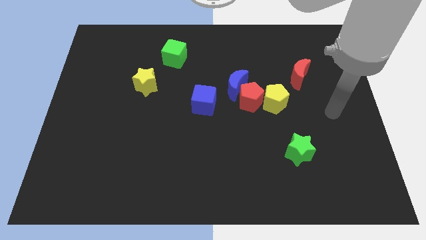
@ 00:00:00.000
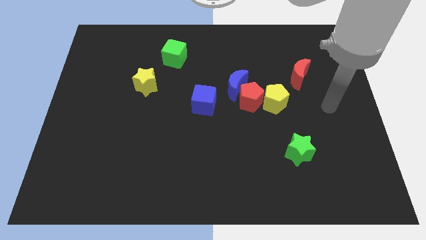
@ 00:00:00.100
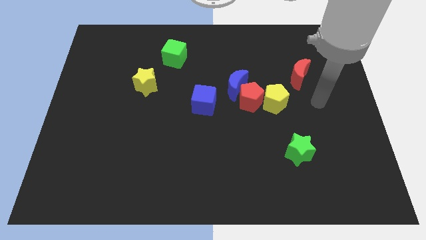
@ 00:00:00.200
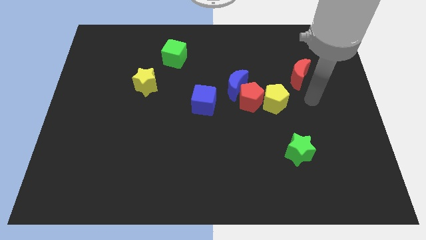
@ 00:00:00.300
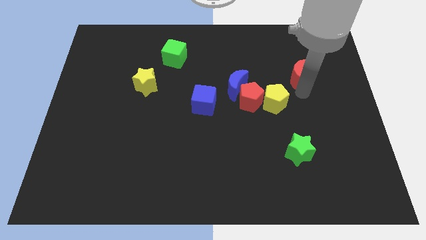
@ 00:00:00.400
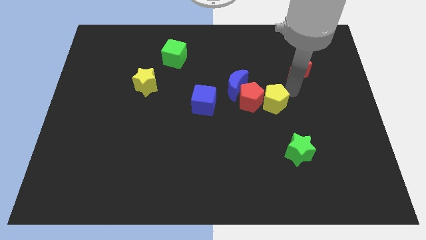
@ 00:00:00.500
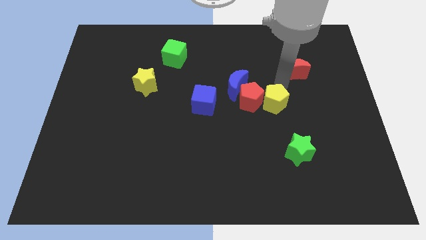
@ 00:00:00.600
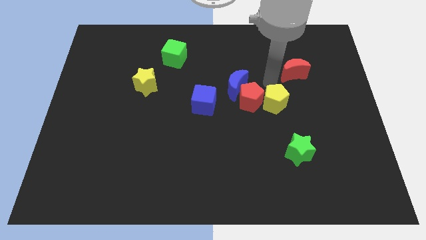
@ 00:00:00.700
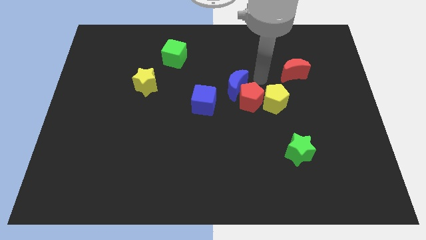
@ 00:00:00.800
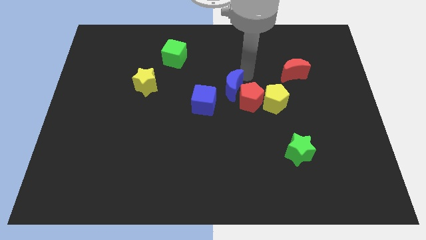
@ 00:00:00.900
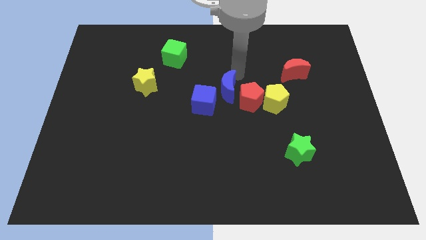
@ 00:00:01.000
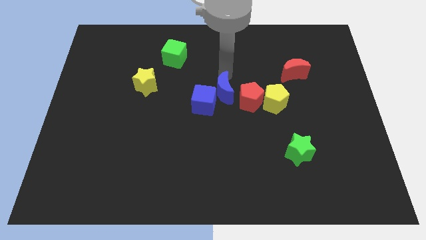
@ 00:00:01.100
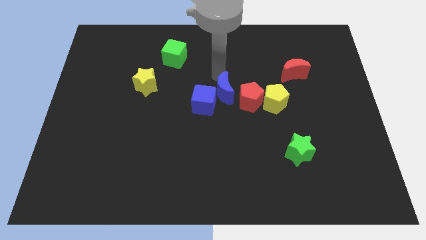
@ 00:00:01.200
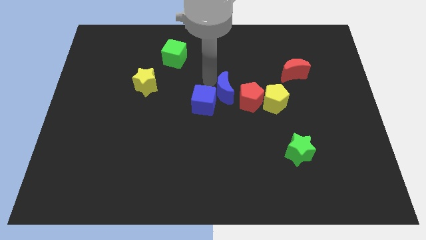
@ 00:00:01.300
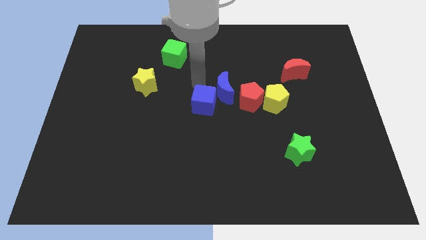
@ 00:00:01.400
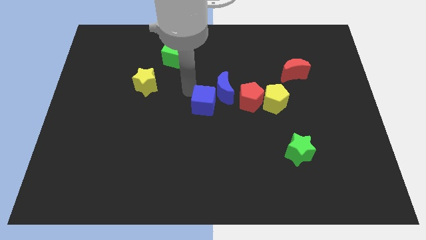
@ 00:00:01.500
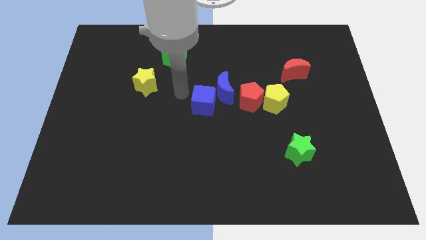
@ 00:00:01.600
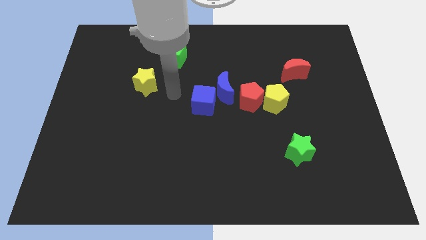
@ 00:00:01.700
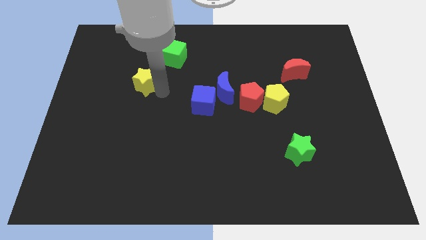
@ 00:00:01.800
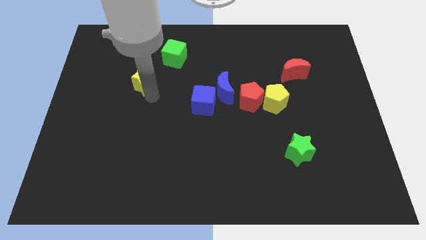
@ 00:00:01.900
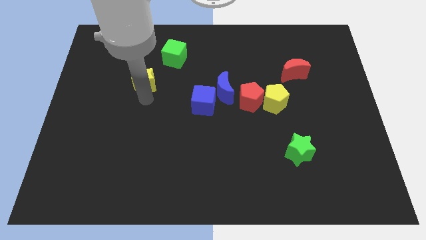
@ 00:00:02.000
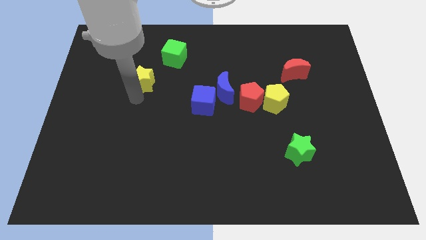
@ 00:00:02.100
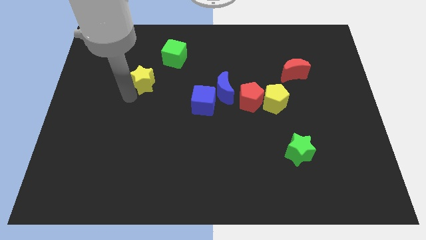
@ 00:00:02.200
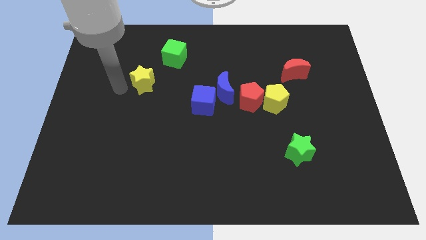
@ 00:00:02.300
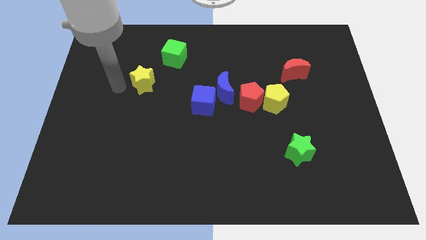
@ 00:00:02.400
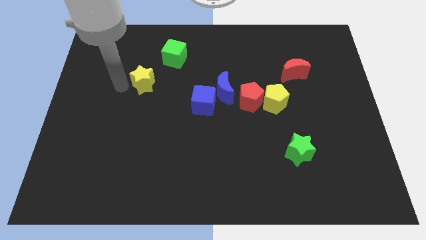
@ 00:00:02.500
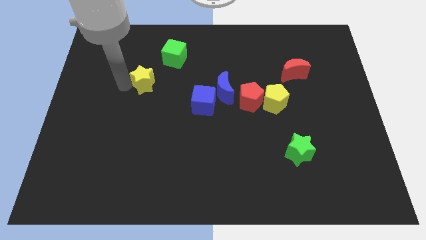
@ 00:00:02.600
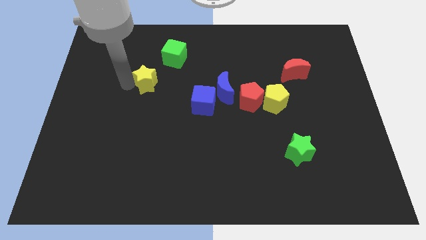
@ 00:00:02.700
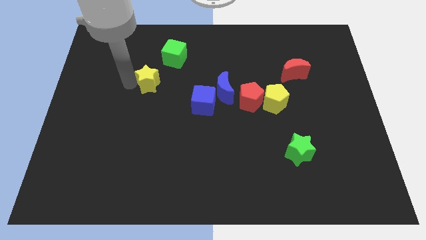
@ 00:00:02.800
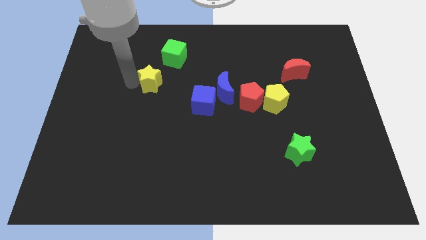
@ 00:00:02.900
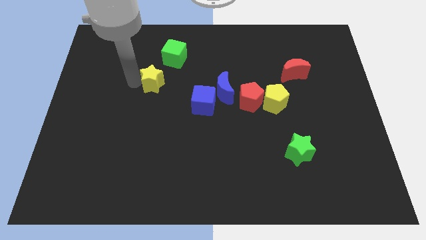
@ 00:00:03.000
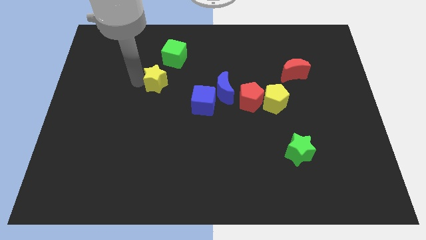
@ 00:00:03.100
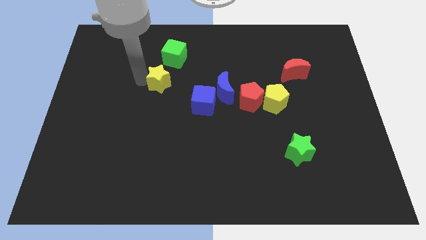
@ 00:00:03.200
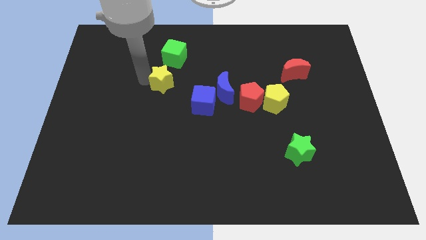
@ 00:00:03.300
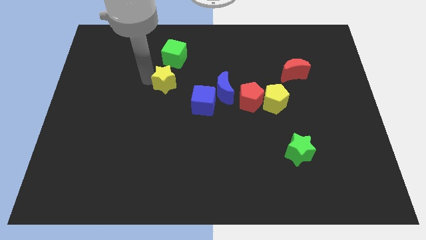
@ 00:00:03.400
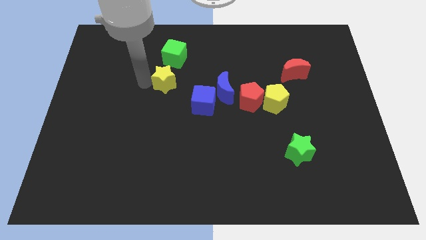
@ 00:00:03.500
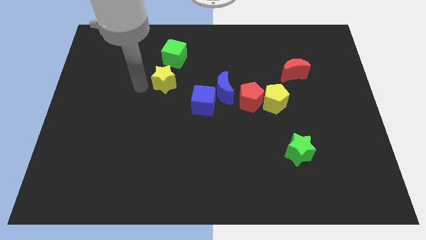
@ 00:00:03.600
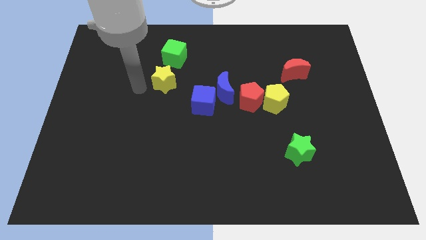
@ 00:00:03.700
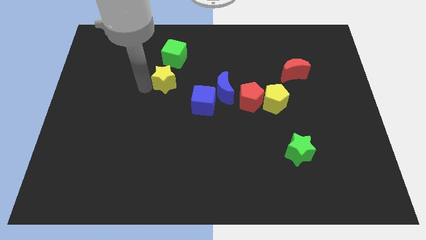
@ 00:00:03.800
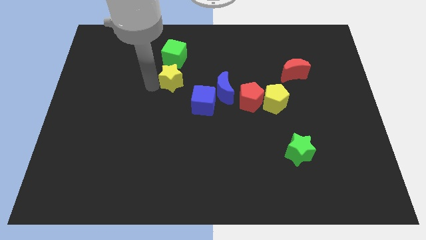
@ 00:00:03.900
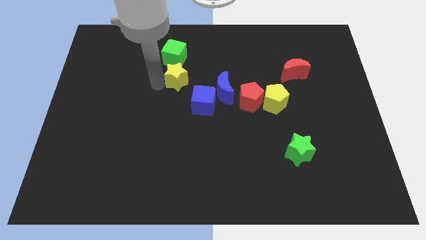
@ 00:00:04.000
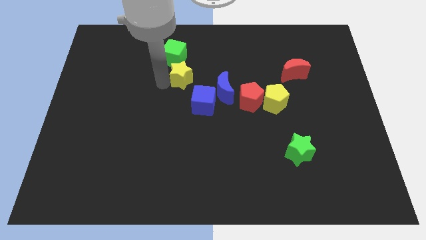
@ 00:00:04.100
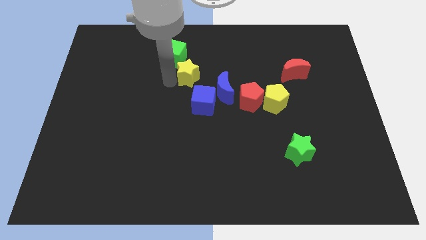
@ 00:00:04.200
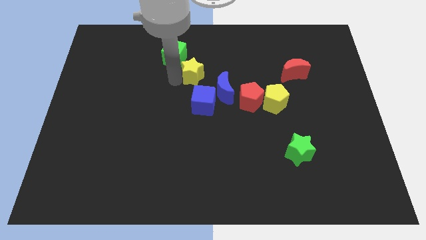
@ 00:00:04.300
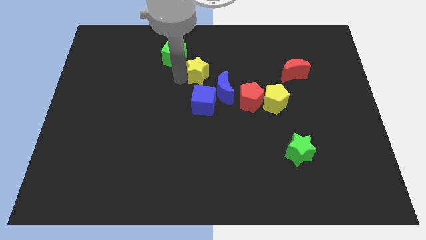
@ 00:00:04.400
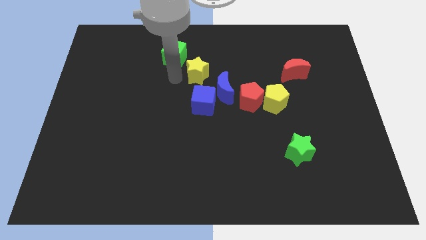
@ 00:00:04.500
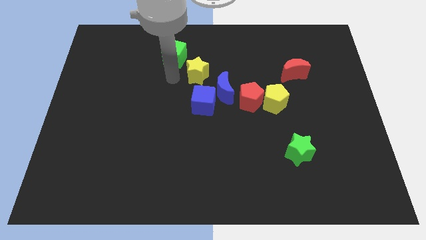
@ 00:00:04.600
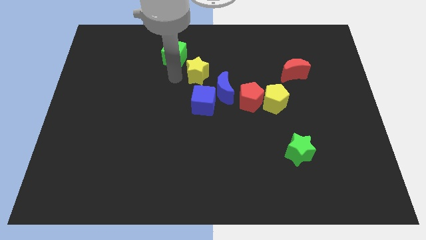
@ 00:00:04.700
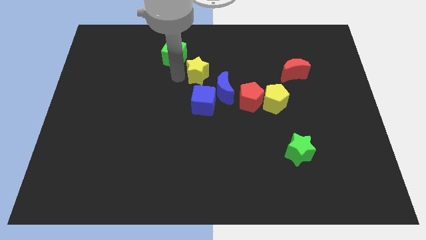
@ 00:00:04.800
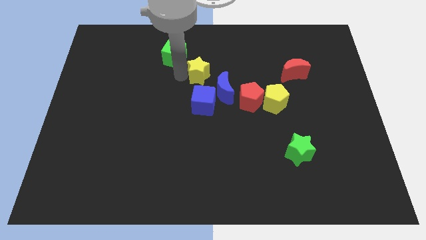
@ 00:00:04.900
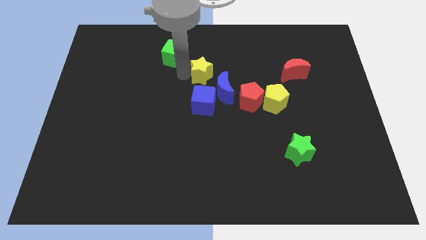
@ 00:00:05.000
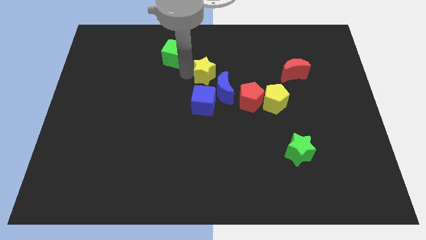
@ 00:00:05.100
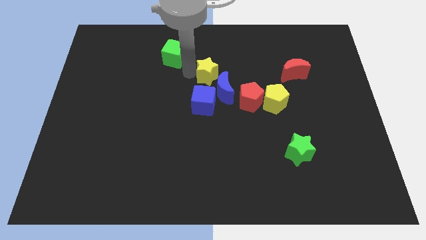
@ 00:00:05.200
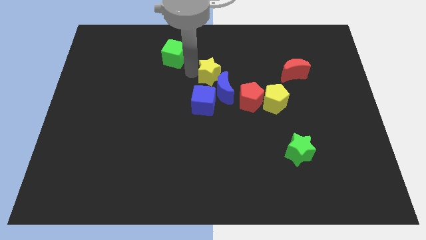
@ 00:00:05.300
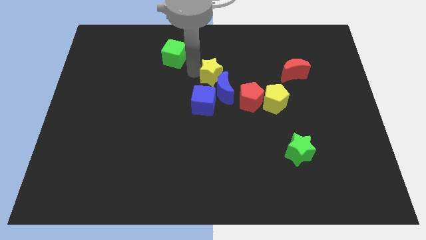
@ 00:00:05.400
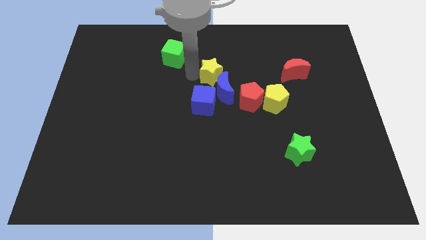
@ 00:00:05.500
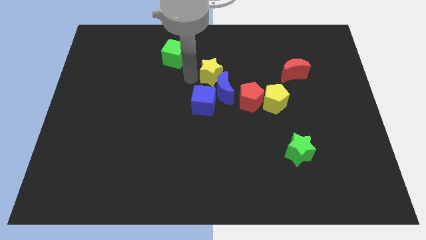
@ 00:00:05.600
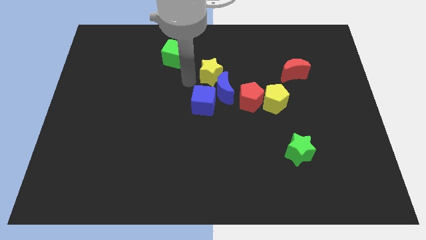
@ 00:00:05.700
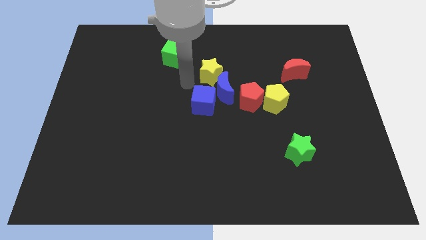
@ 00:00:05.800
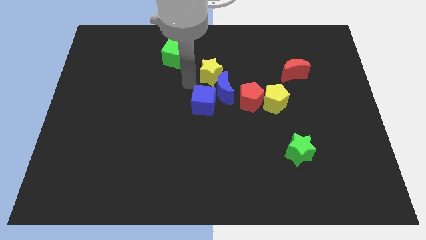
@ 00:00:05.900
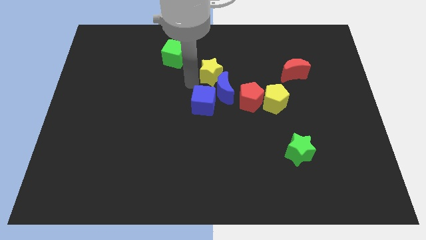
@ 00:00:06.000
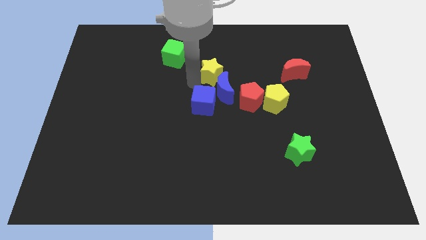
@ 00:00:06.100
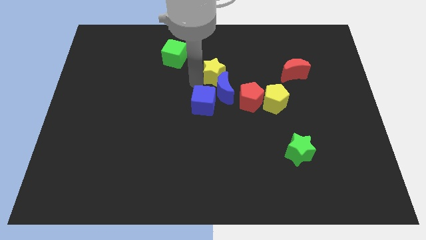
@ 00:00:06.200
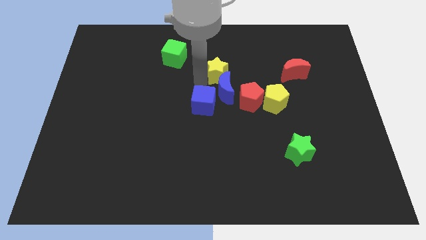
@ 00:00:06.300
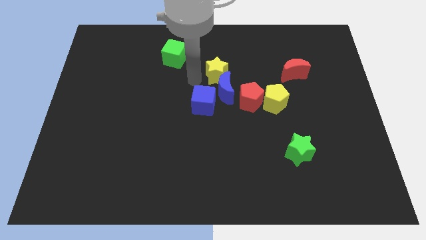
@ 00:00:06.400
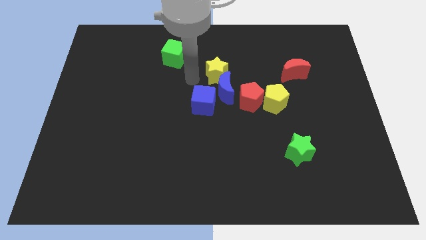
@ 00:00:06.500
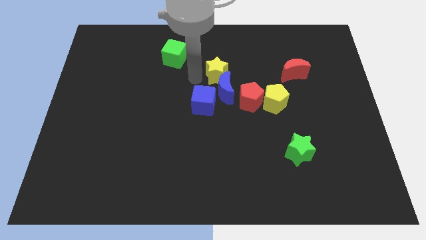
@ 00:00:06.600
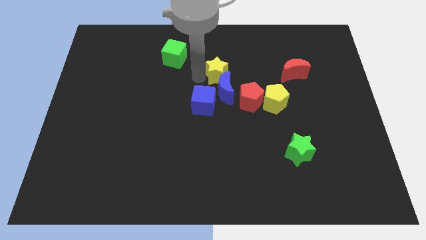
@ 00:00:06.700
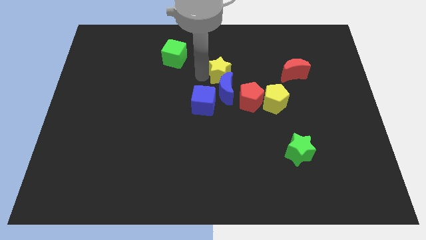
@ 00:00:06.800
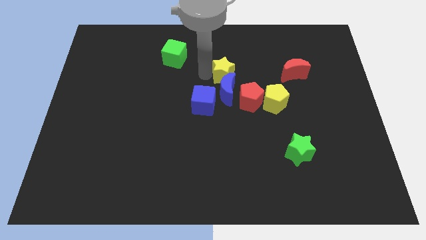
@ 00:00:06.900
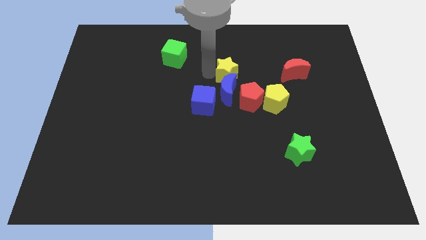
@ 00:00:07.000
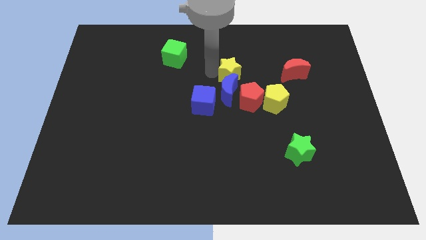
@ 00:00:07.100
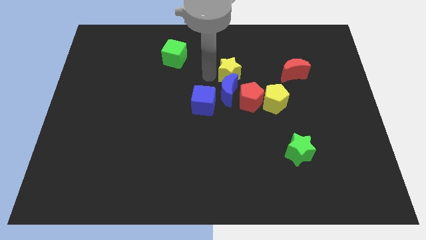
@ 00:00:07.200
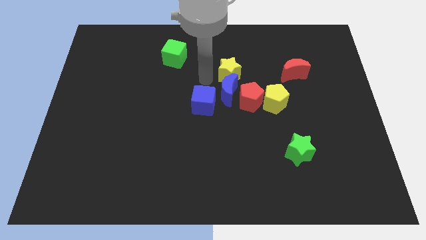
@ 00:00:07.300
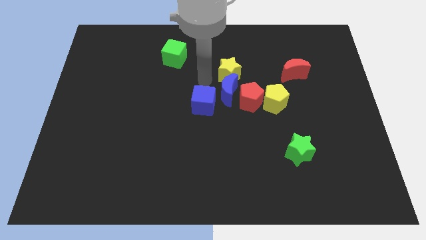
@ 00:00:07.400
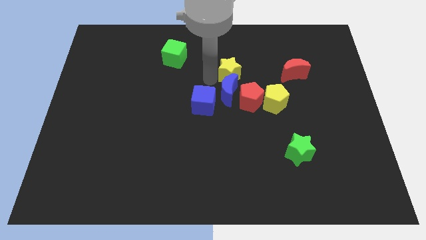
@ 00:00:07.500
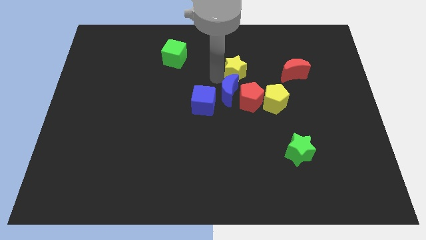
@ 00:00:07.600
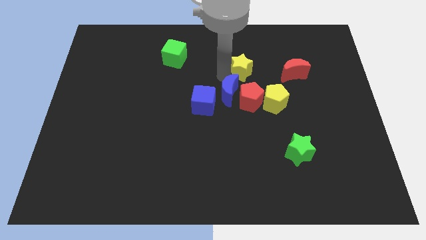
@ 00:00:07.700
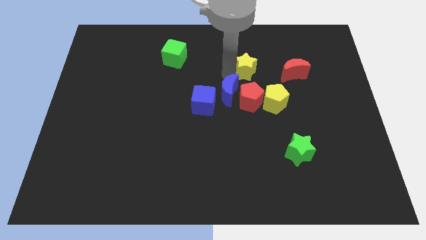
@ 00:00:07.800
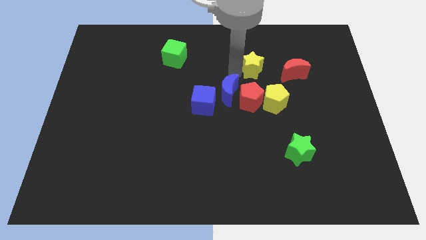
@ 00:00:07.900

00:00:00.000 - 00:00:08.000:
push the yellow star to the top side of the yellow pentagon
